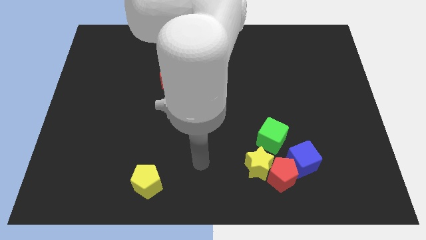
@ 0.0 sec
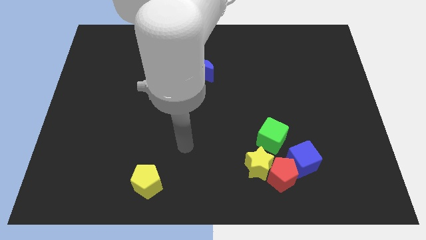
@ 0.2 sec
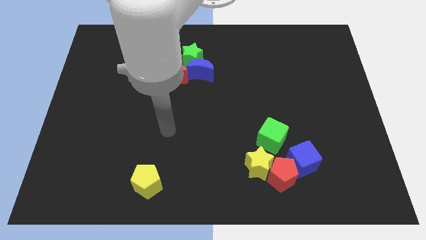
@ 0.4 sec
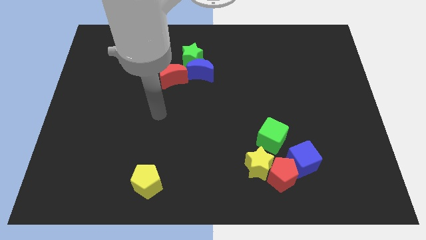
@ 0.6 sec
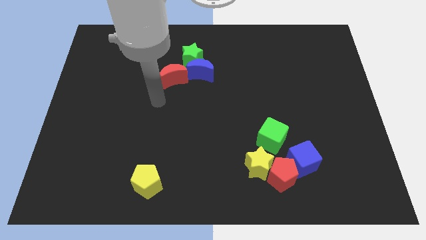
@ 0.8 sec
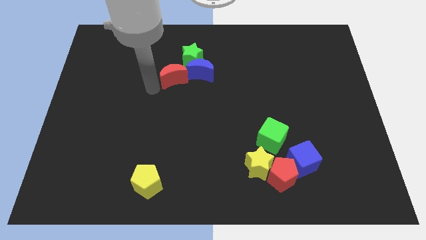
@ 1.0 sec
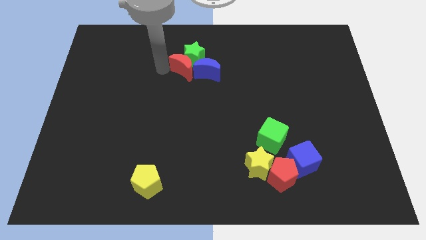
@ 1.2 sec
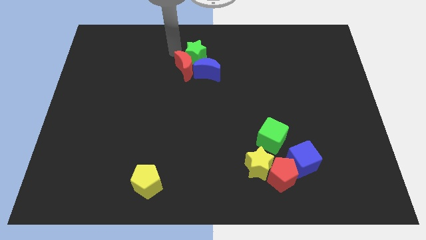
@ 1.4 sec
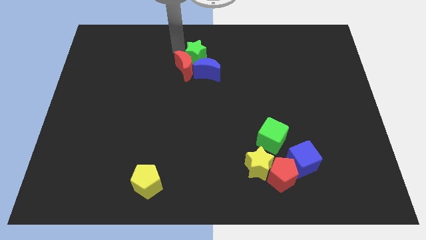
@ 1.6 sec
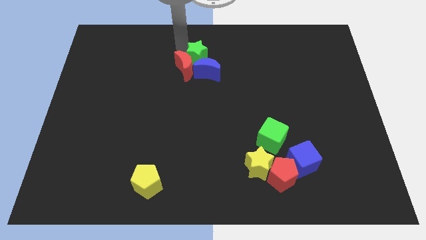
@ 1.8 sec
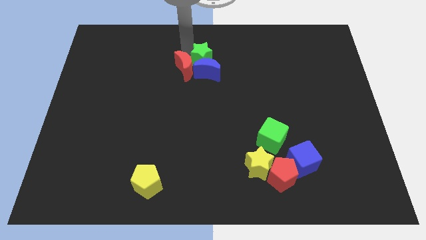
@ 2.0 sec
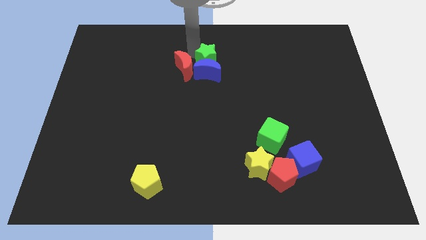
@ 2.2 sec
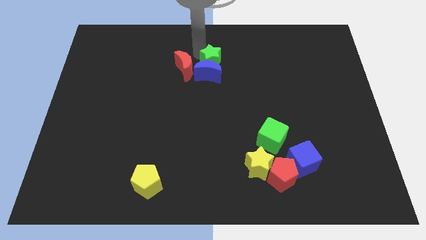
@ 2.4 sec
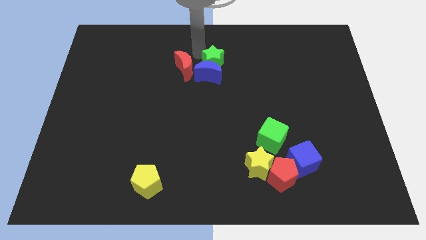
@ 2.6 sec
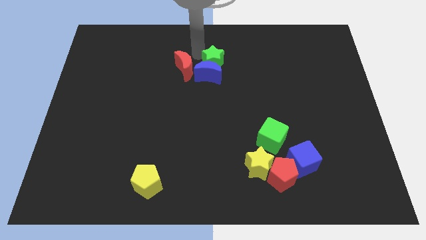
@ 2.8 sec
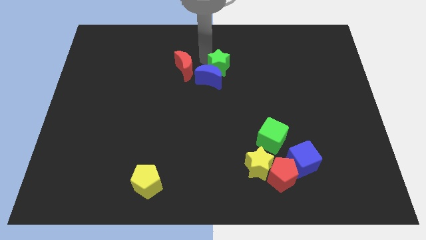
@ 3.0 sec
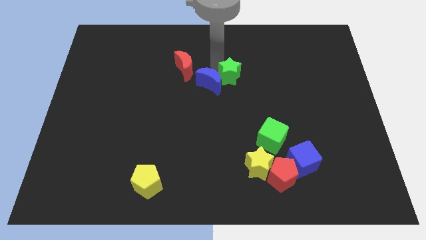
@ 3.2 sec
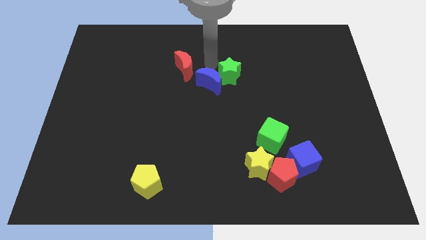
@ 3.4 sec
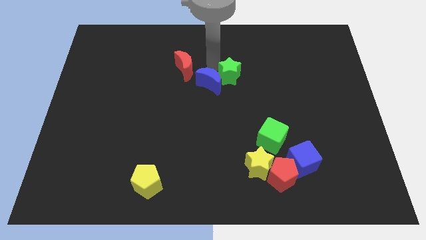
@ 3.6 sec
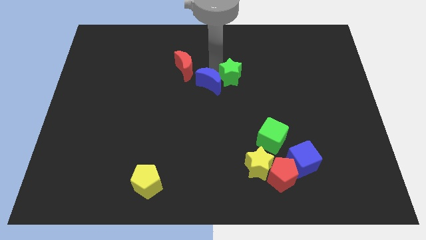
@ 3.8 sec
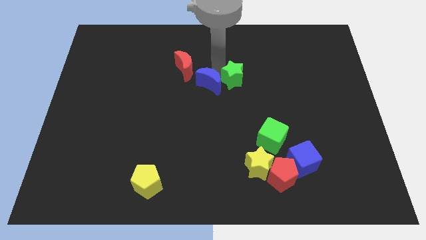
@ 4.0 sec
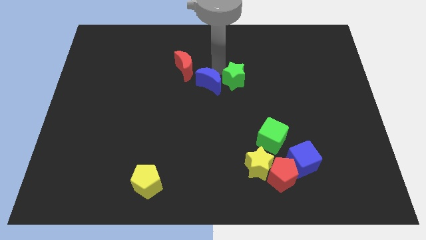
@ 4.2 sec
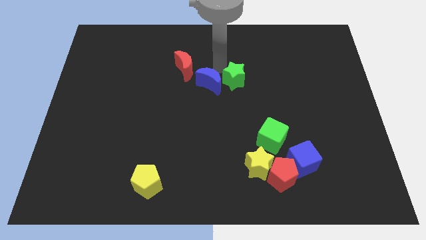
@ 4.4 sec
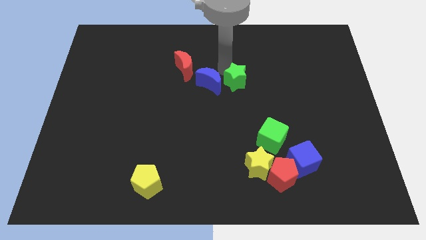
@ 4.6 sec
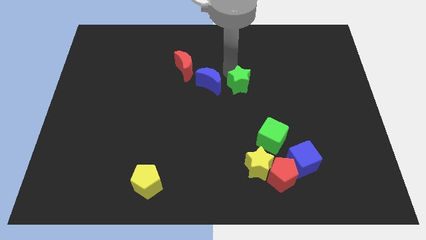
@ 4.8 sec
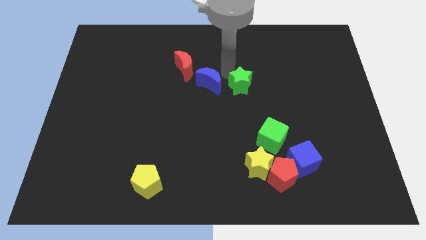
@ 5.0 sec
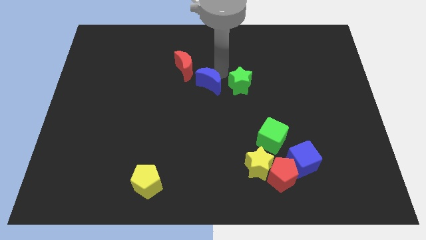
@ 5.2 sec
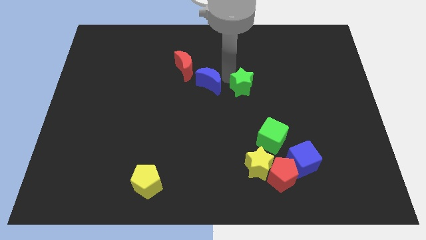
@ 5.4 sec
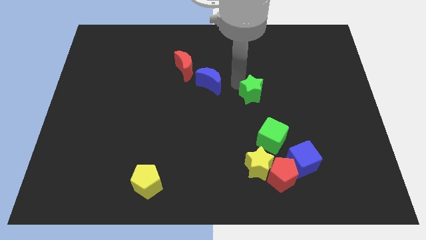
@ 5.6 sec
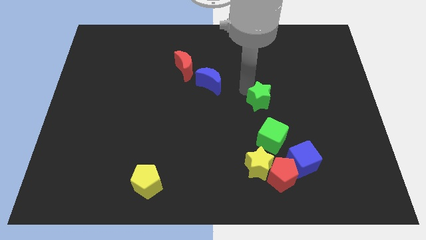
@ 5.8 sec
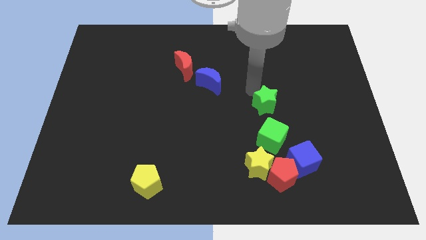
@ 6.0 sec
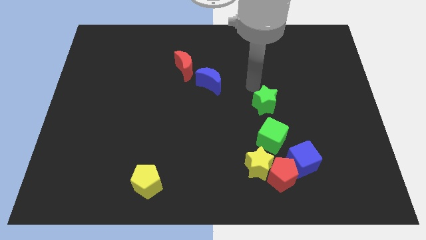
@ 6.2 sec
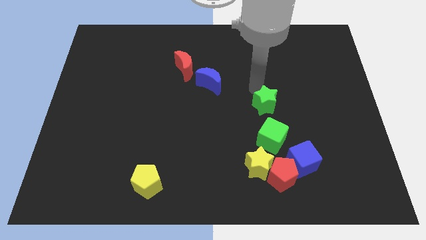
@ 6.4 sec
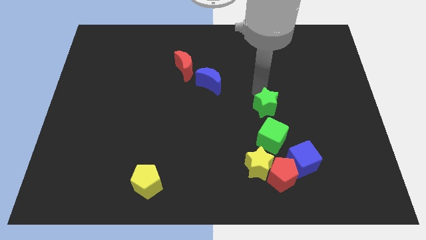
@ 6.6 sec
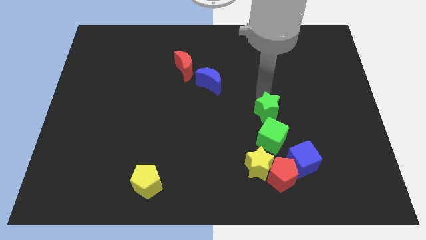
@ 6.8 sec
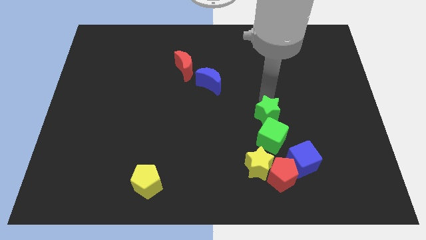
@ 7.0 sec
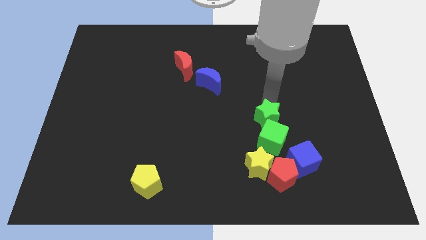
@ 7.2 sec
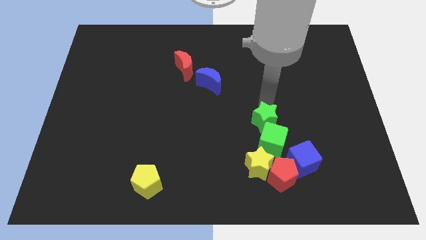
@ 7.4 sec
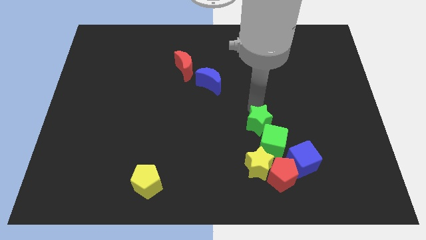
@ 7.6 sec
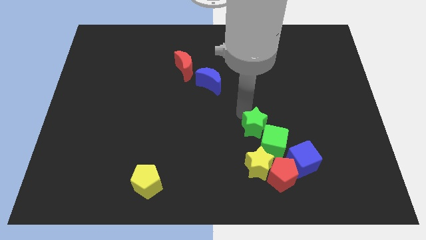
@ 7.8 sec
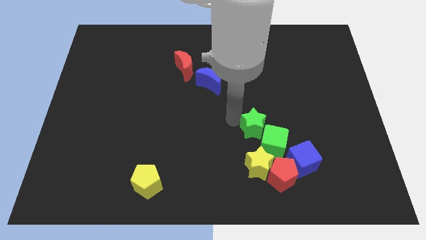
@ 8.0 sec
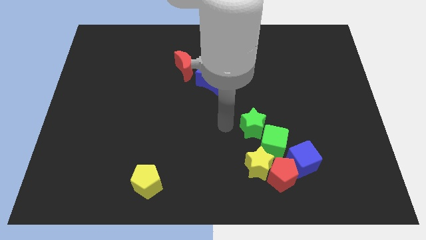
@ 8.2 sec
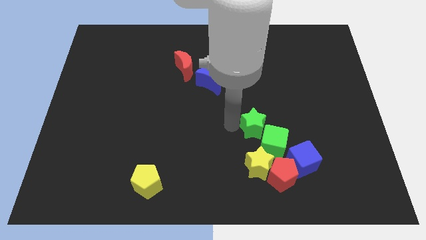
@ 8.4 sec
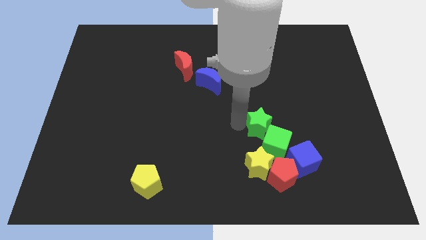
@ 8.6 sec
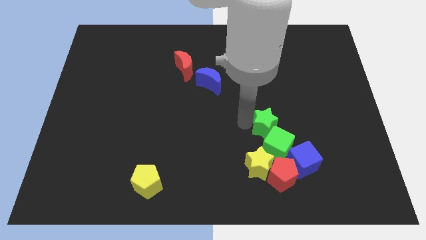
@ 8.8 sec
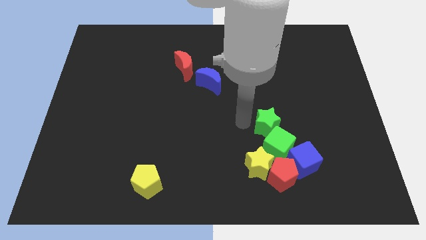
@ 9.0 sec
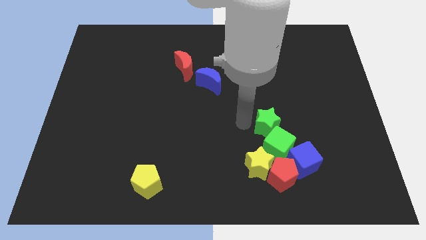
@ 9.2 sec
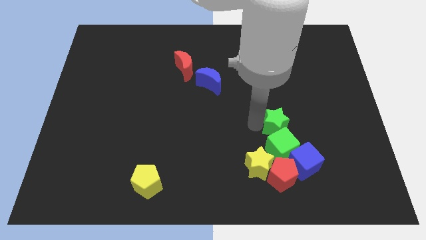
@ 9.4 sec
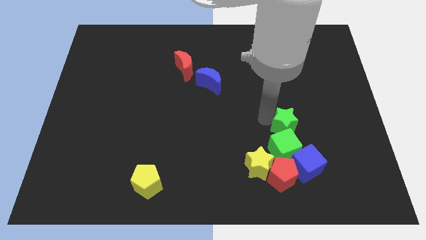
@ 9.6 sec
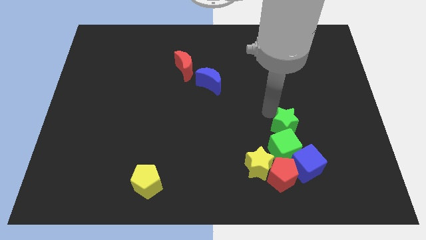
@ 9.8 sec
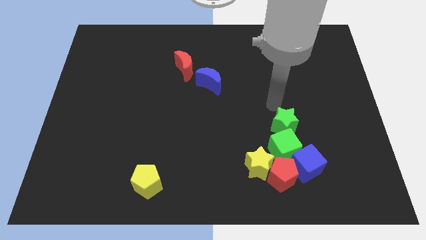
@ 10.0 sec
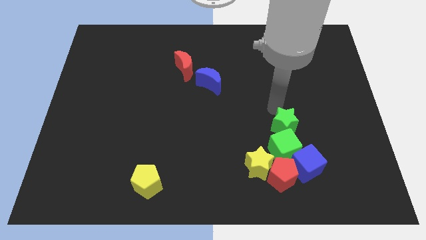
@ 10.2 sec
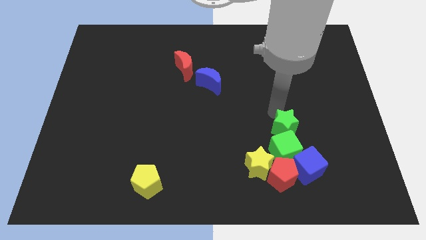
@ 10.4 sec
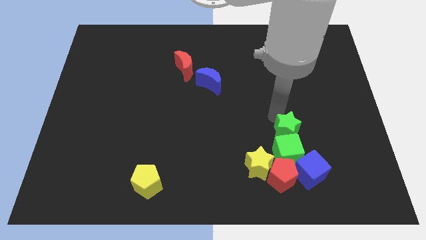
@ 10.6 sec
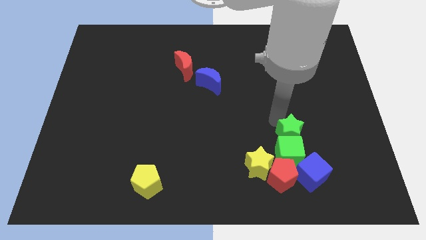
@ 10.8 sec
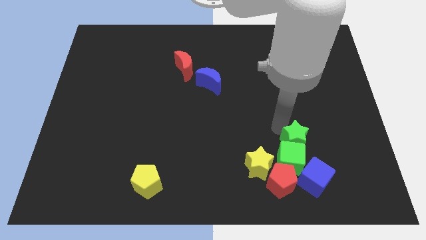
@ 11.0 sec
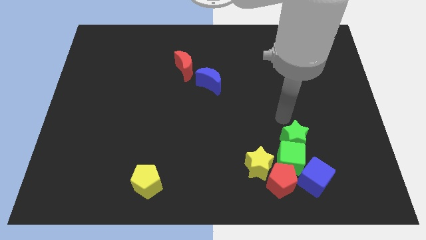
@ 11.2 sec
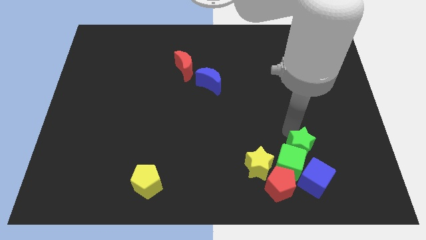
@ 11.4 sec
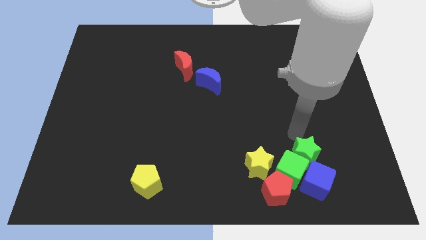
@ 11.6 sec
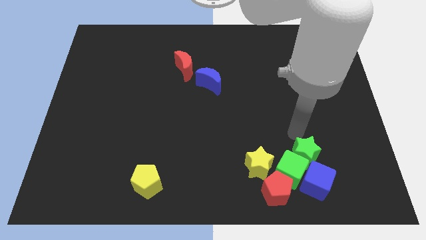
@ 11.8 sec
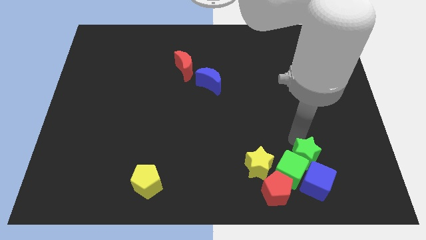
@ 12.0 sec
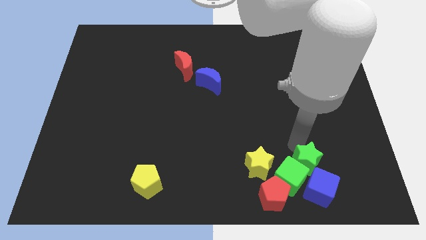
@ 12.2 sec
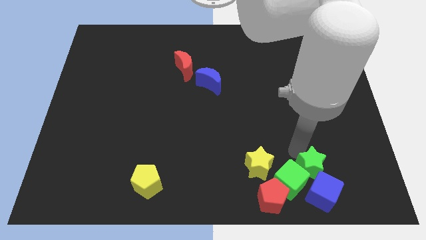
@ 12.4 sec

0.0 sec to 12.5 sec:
move the green star close to the blue cube

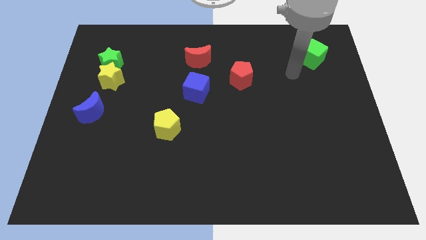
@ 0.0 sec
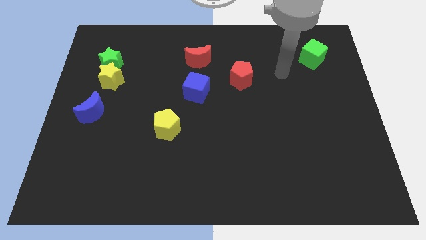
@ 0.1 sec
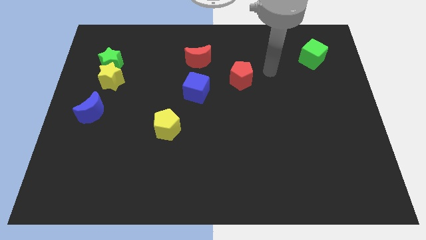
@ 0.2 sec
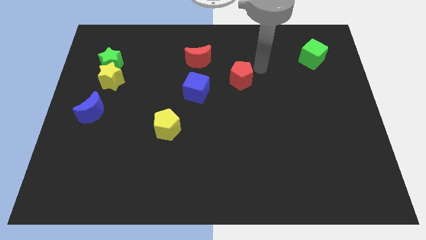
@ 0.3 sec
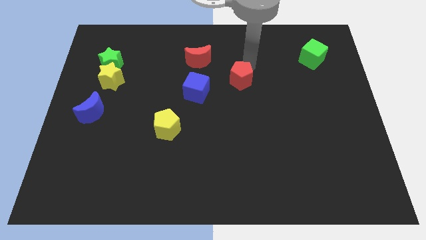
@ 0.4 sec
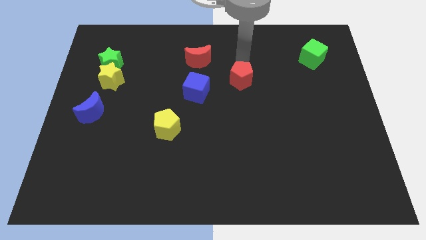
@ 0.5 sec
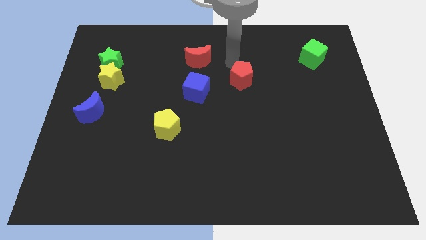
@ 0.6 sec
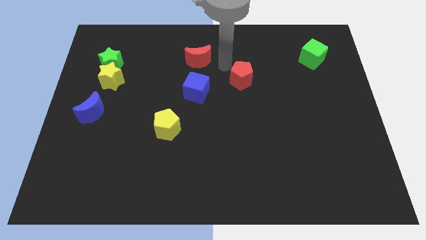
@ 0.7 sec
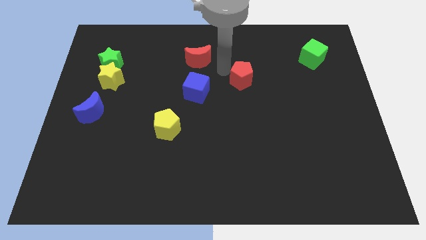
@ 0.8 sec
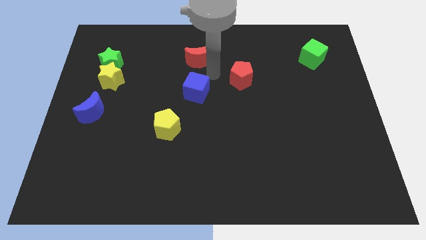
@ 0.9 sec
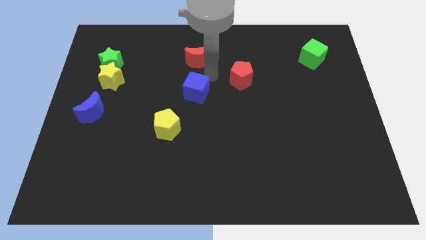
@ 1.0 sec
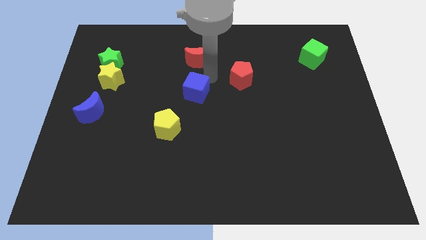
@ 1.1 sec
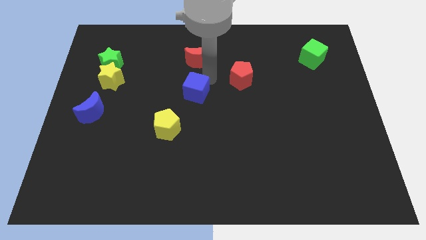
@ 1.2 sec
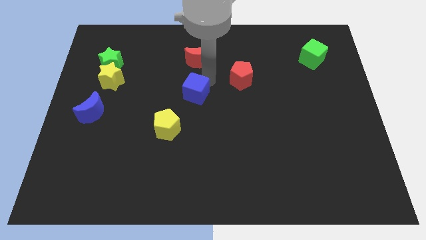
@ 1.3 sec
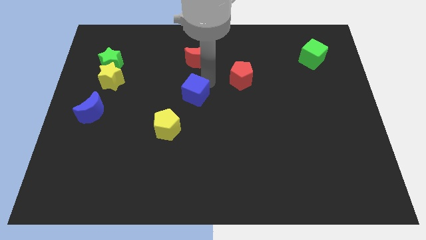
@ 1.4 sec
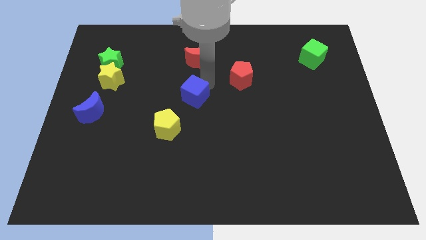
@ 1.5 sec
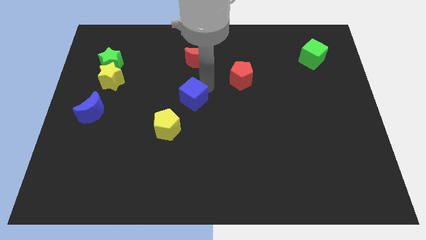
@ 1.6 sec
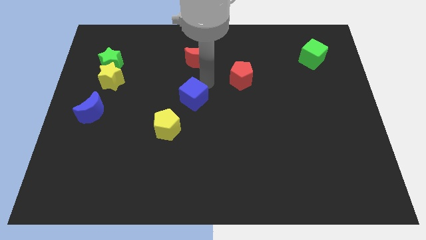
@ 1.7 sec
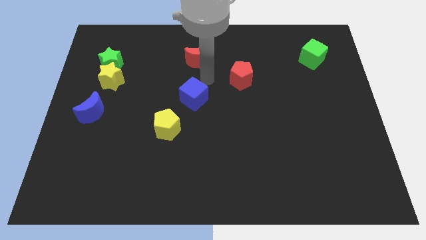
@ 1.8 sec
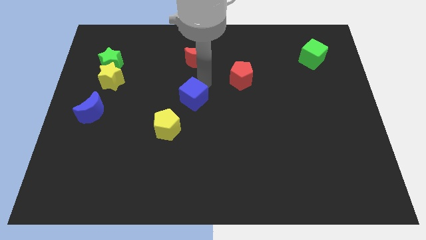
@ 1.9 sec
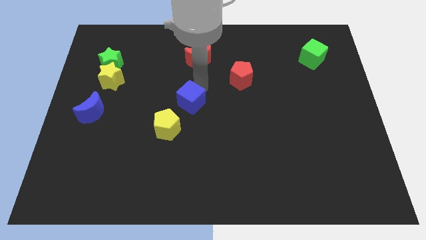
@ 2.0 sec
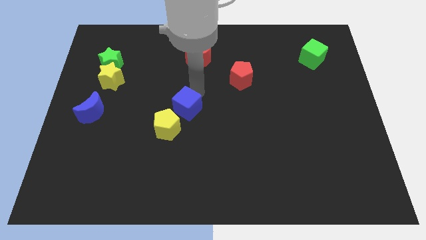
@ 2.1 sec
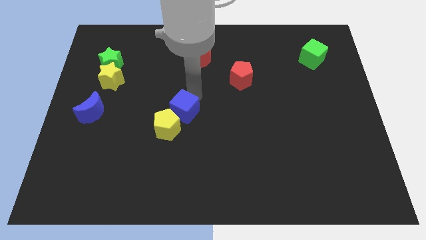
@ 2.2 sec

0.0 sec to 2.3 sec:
push the blue cube next to the yellow pentagon
